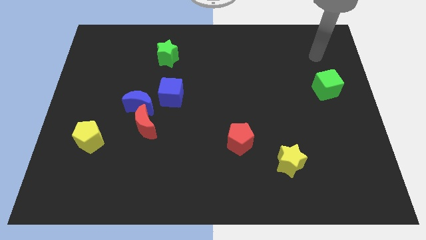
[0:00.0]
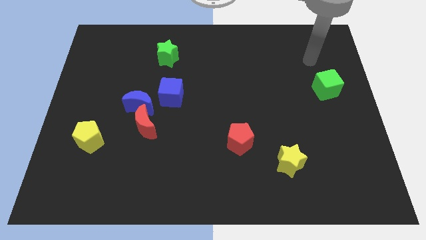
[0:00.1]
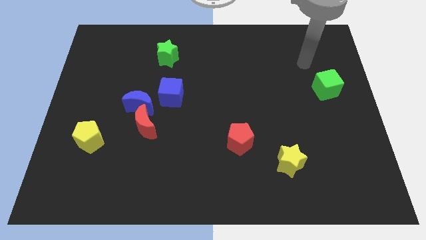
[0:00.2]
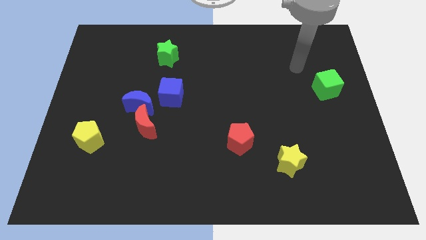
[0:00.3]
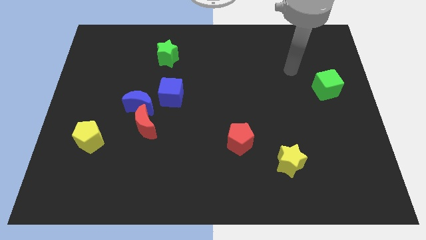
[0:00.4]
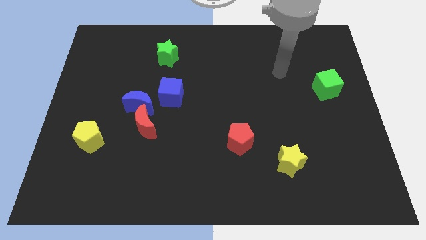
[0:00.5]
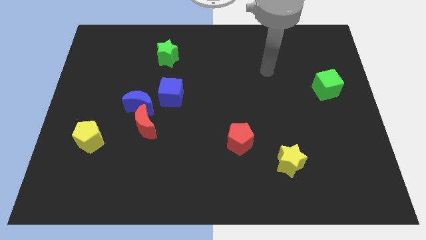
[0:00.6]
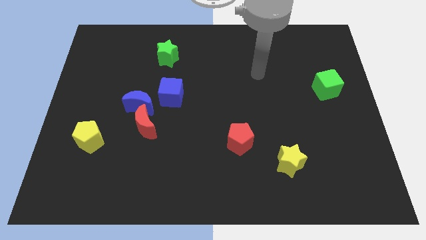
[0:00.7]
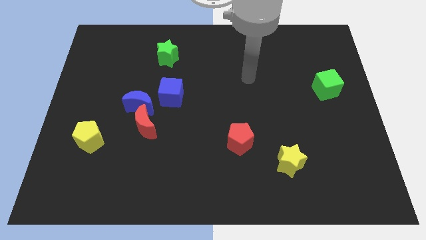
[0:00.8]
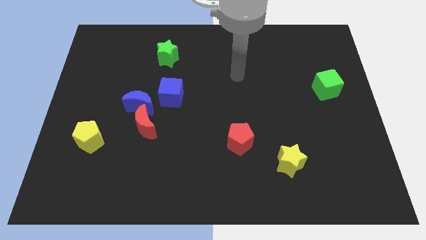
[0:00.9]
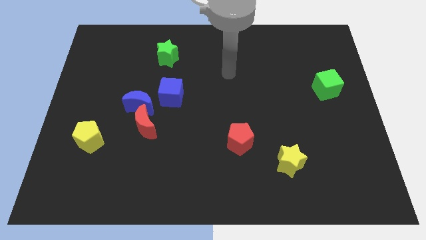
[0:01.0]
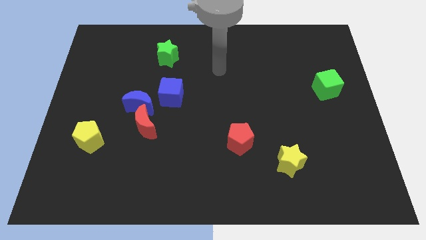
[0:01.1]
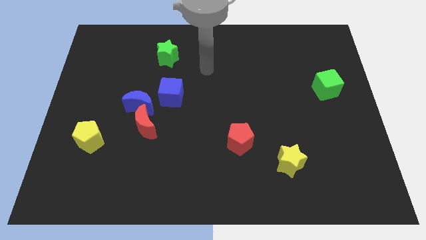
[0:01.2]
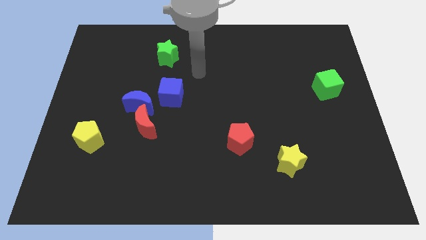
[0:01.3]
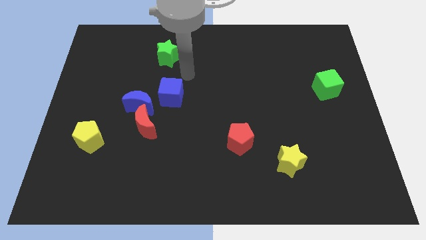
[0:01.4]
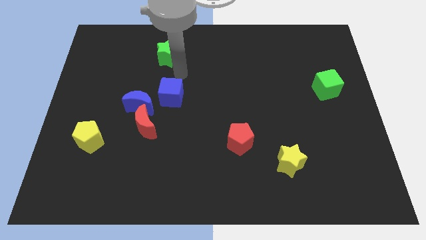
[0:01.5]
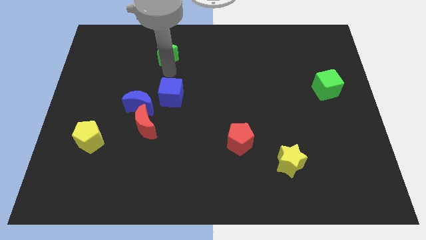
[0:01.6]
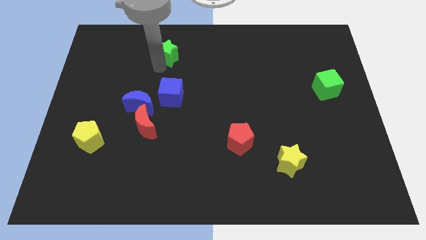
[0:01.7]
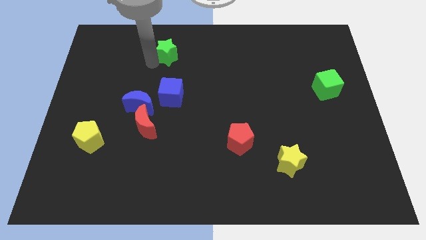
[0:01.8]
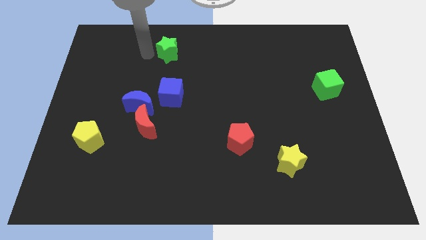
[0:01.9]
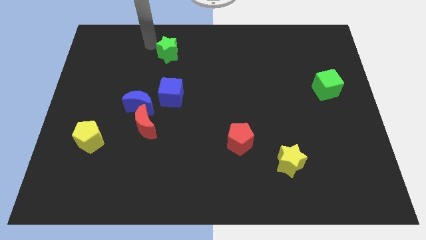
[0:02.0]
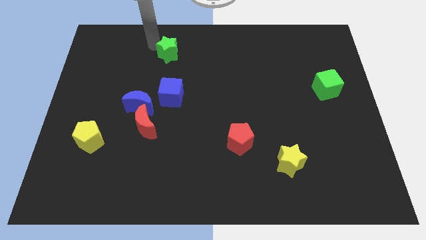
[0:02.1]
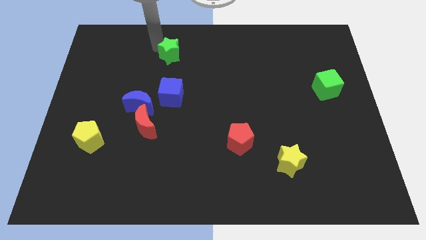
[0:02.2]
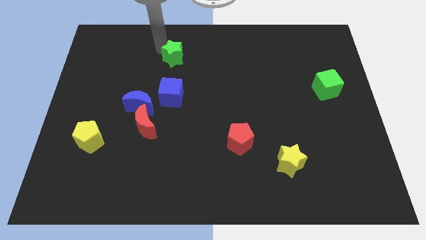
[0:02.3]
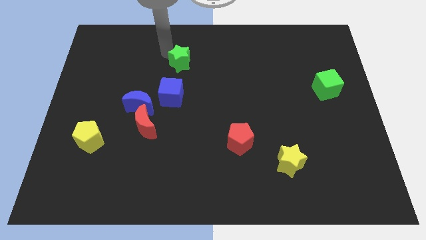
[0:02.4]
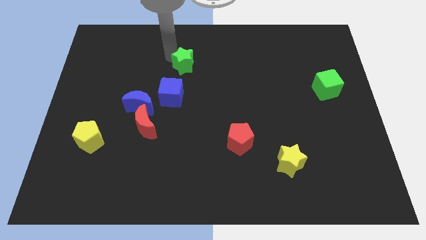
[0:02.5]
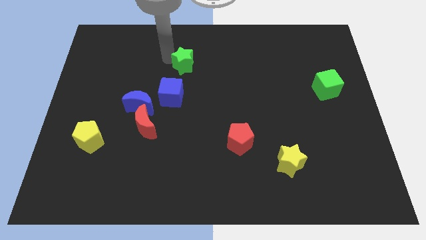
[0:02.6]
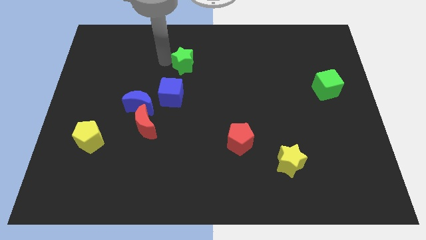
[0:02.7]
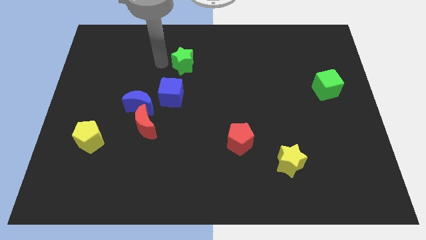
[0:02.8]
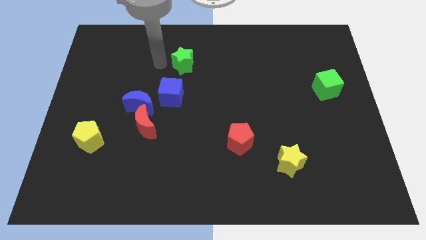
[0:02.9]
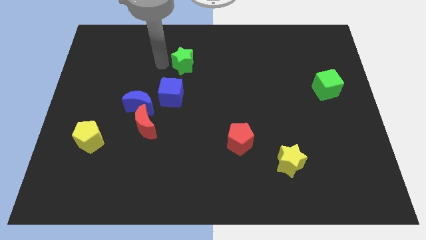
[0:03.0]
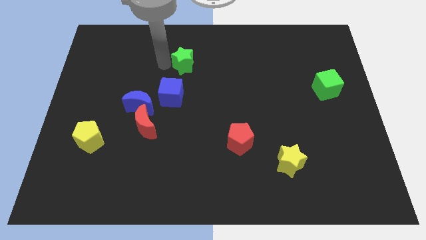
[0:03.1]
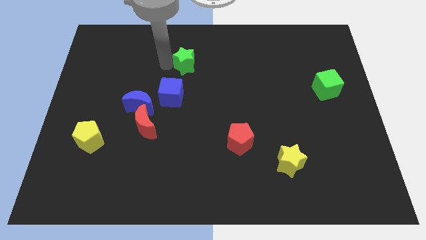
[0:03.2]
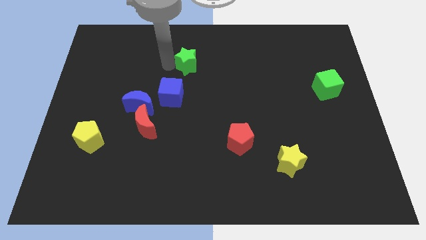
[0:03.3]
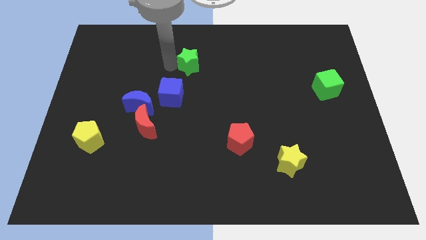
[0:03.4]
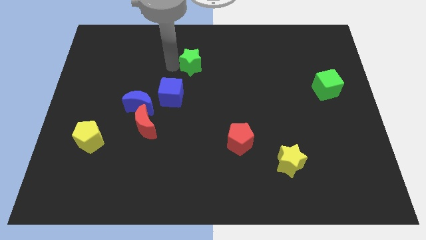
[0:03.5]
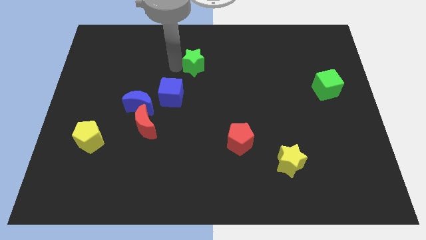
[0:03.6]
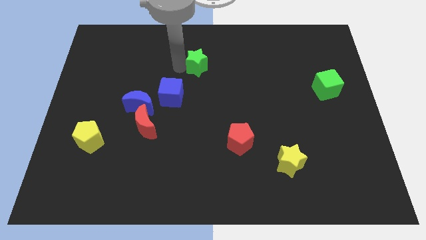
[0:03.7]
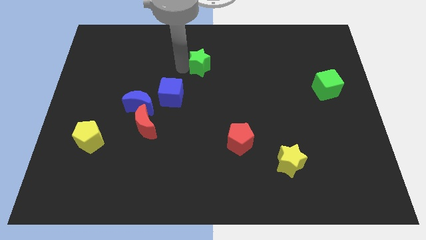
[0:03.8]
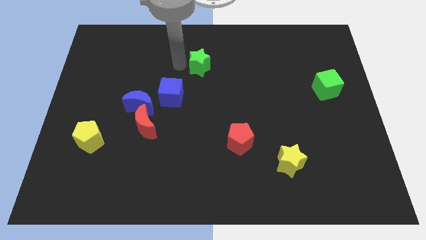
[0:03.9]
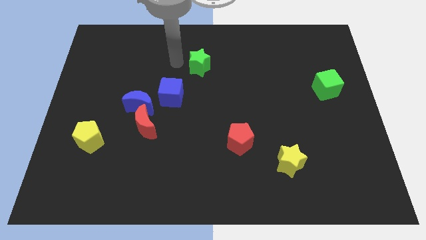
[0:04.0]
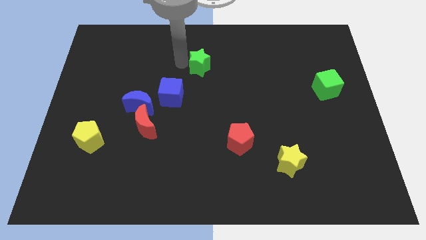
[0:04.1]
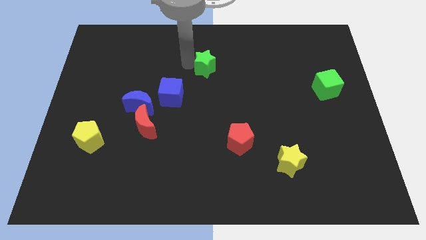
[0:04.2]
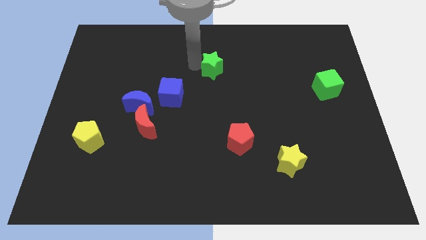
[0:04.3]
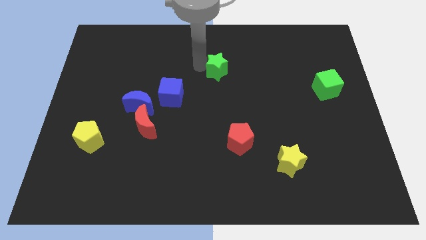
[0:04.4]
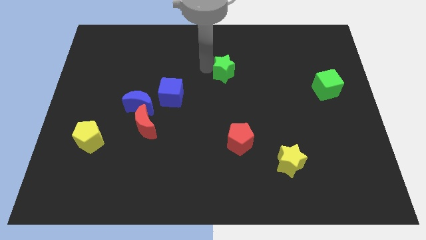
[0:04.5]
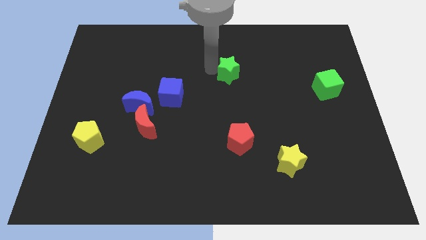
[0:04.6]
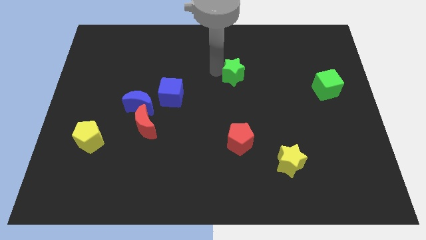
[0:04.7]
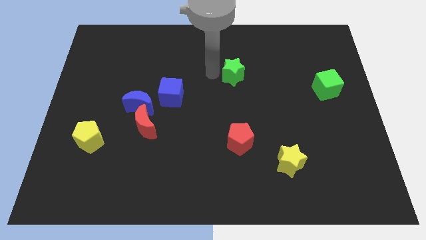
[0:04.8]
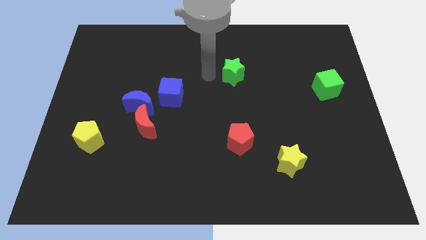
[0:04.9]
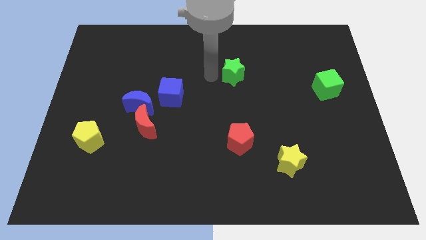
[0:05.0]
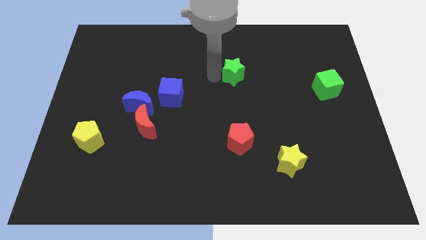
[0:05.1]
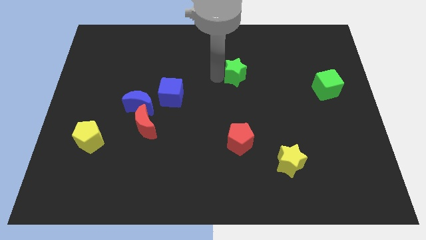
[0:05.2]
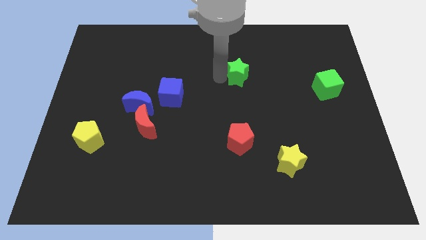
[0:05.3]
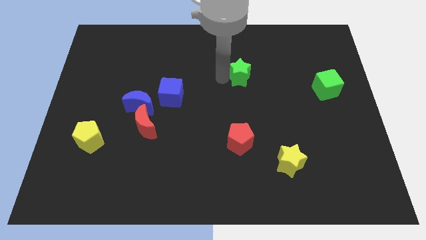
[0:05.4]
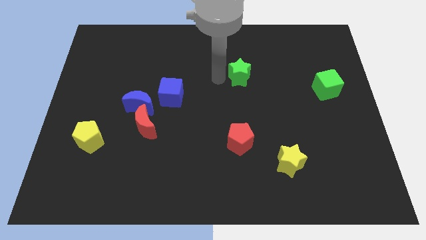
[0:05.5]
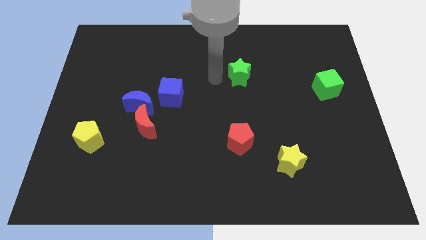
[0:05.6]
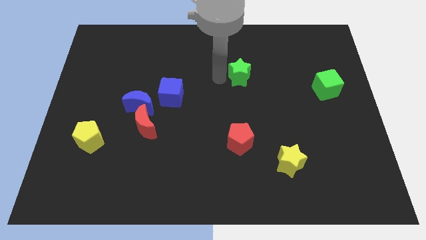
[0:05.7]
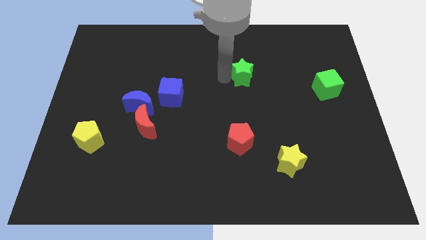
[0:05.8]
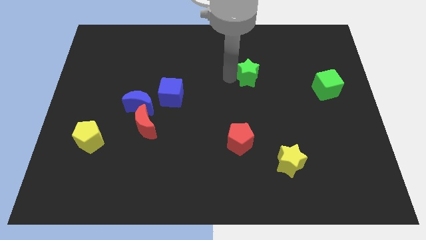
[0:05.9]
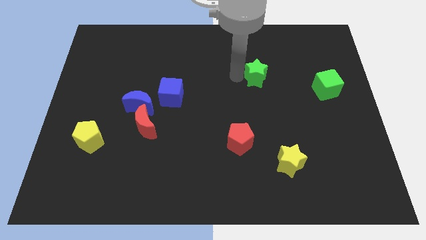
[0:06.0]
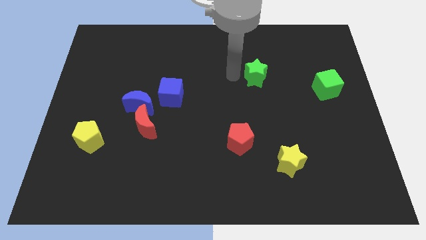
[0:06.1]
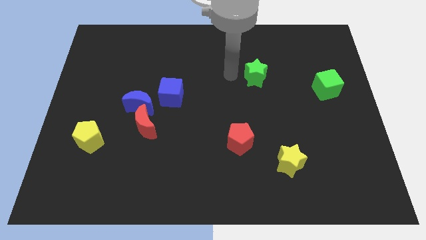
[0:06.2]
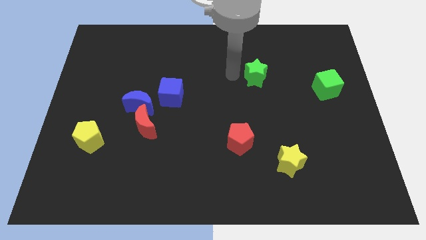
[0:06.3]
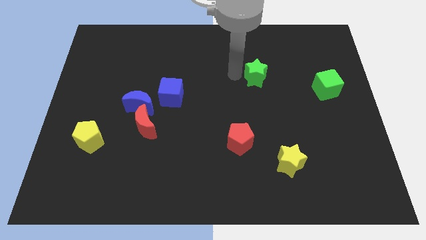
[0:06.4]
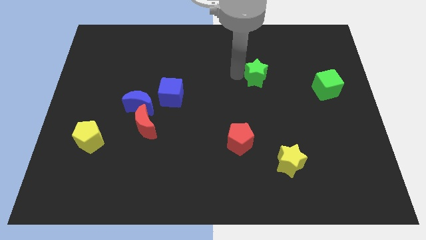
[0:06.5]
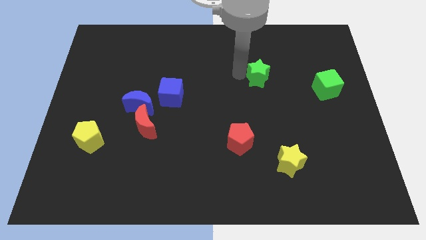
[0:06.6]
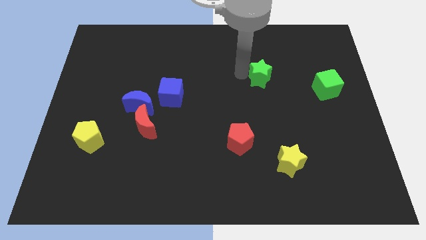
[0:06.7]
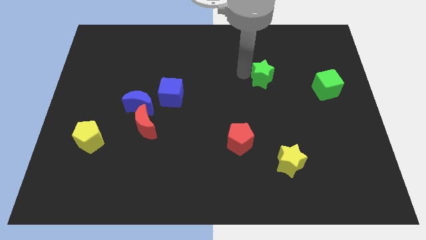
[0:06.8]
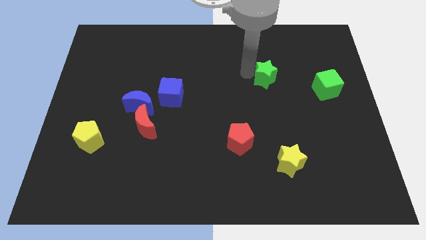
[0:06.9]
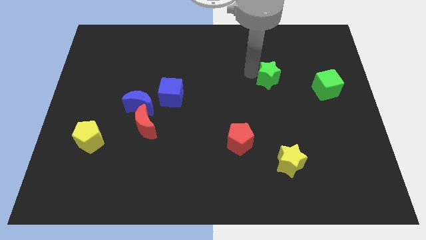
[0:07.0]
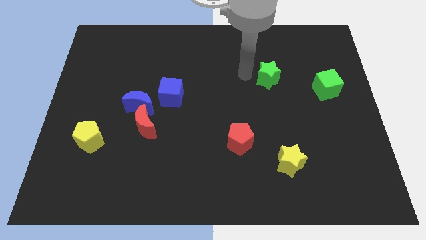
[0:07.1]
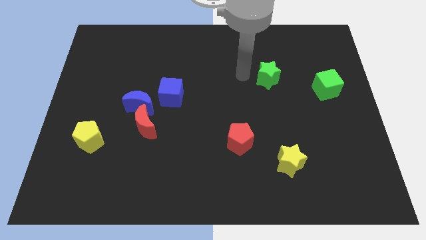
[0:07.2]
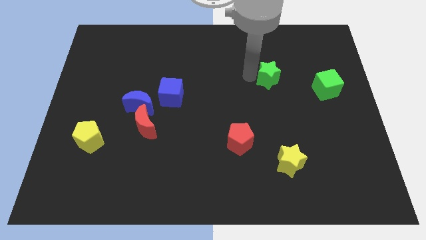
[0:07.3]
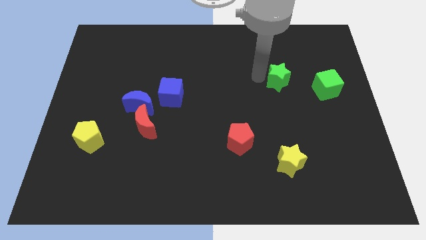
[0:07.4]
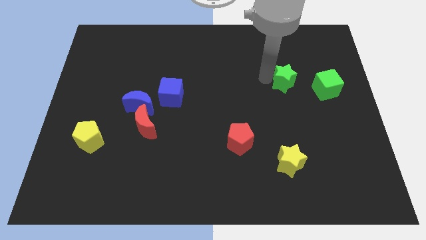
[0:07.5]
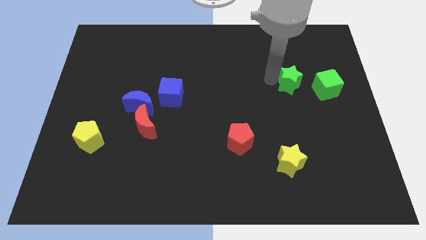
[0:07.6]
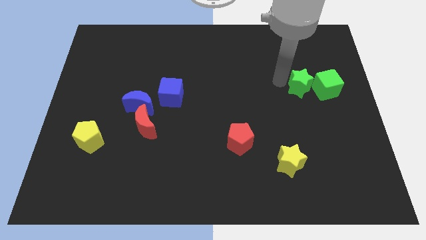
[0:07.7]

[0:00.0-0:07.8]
slide the green star to the green cube
